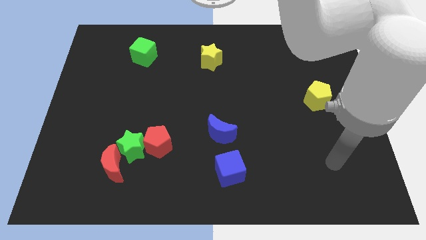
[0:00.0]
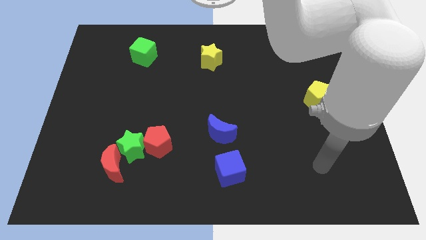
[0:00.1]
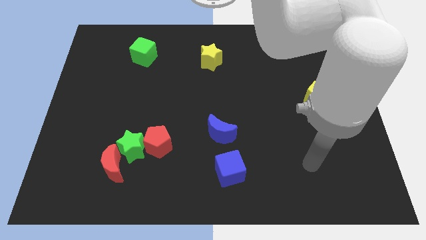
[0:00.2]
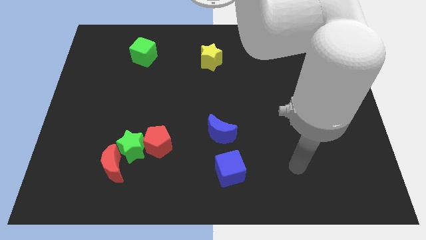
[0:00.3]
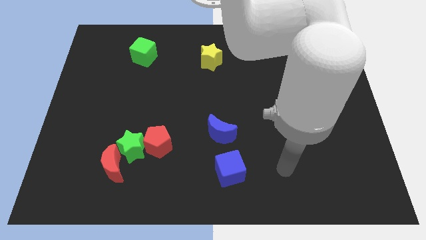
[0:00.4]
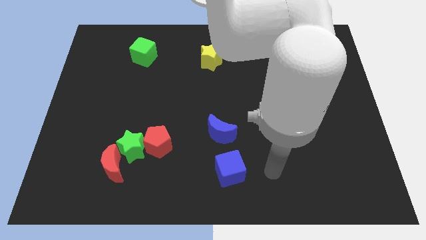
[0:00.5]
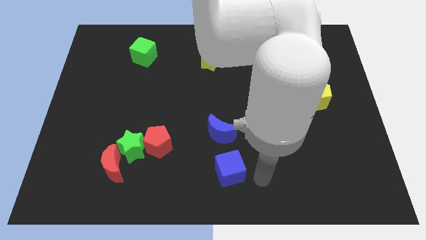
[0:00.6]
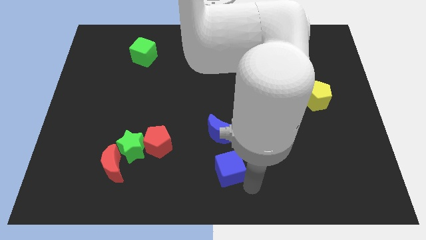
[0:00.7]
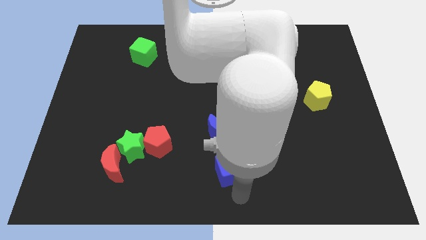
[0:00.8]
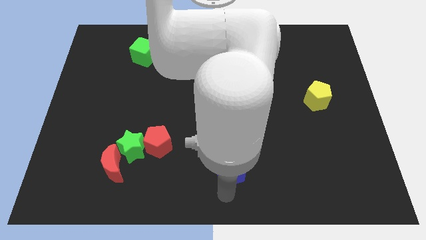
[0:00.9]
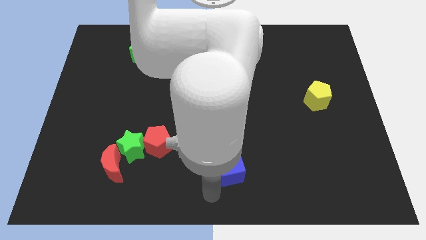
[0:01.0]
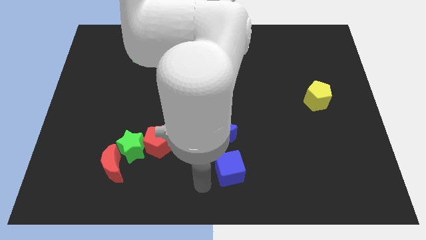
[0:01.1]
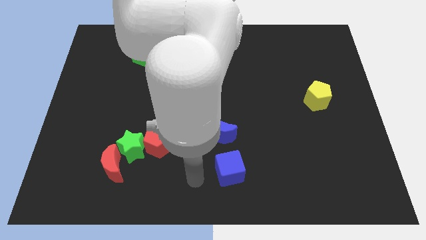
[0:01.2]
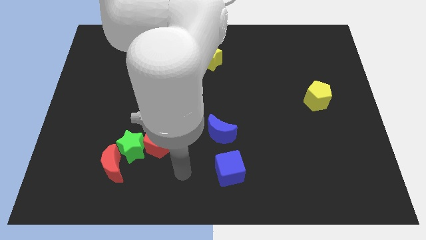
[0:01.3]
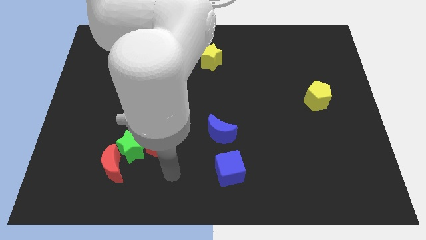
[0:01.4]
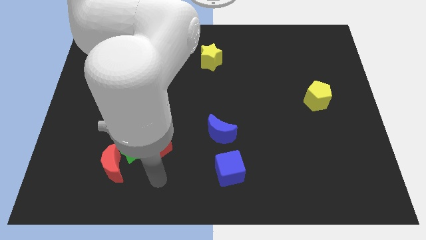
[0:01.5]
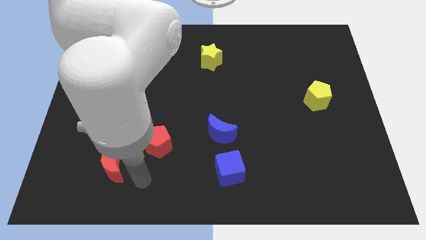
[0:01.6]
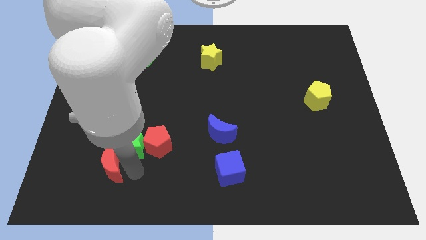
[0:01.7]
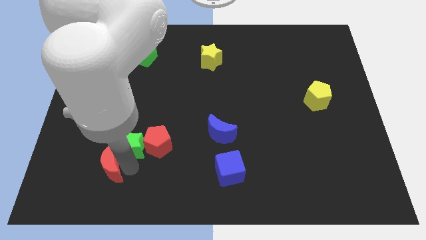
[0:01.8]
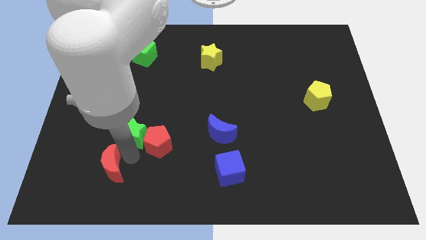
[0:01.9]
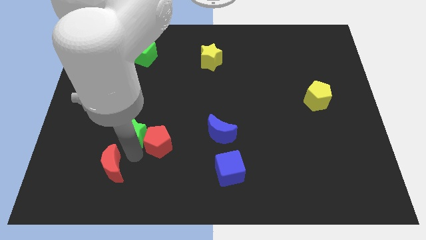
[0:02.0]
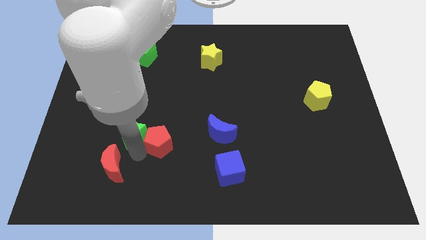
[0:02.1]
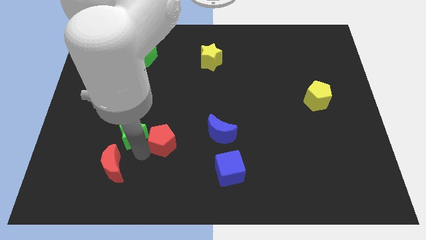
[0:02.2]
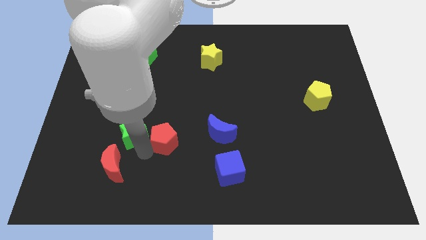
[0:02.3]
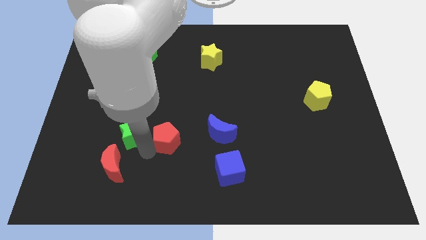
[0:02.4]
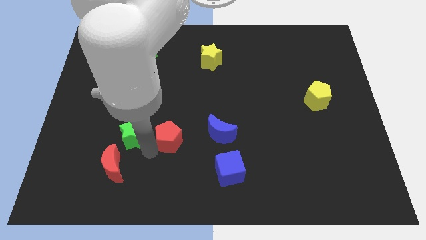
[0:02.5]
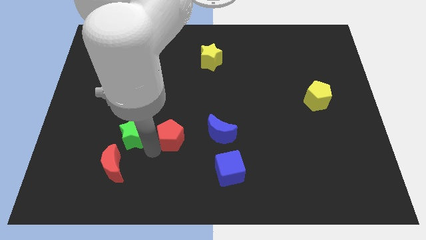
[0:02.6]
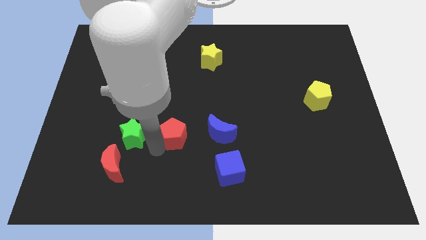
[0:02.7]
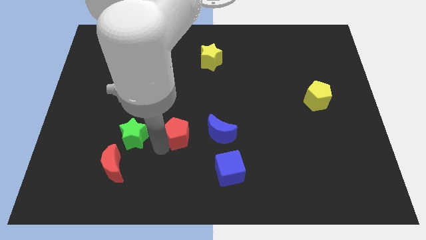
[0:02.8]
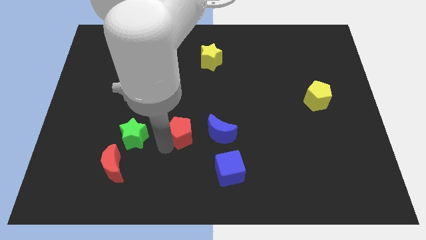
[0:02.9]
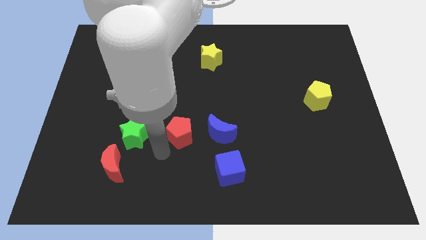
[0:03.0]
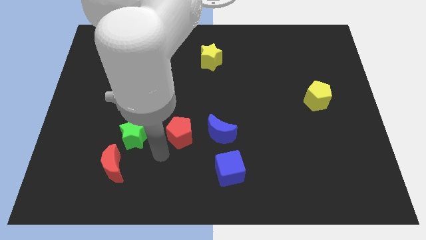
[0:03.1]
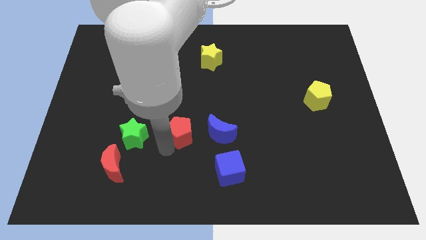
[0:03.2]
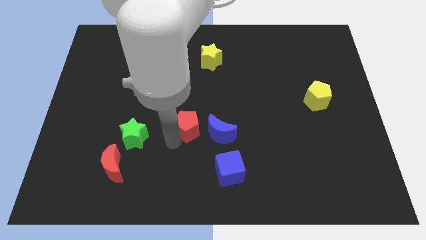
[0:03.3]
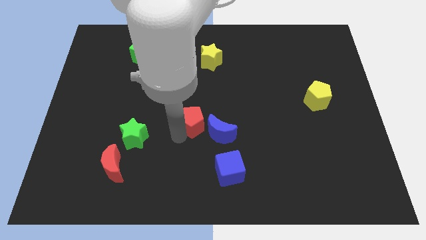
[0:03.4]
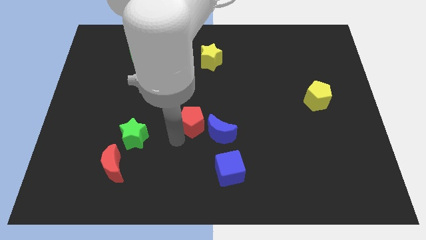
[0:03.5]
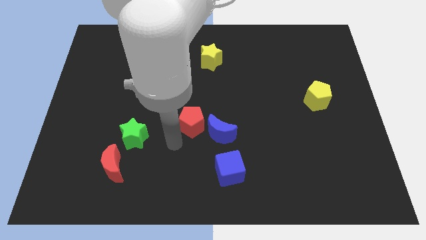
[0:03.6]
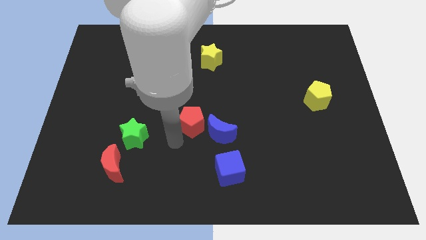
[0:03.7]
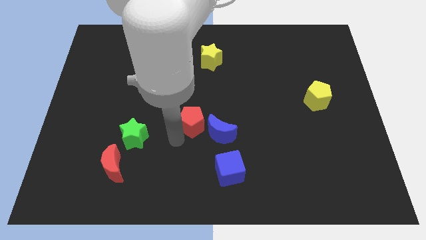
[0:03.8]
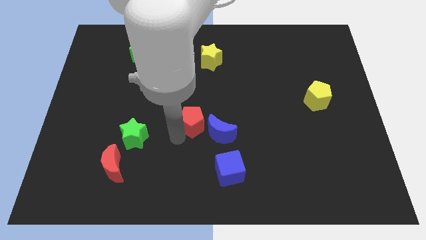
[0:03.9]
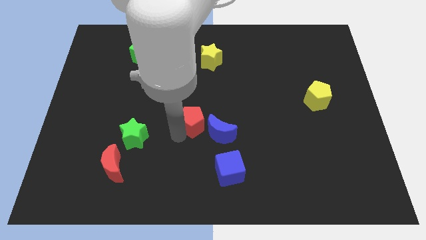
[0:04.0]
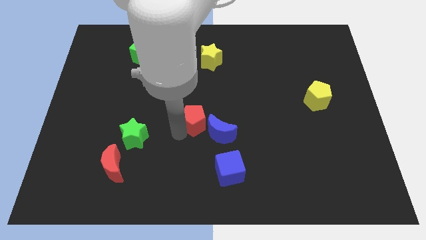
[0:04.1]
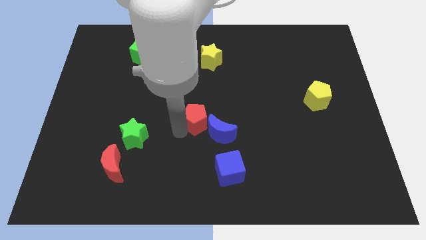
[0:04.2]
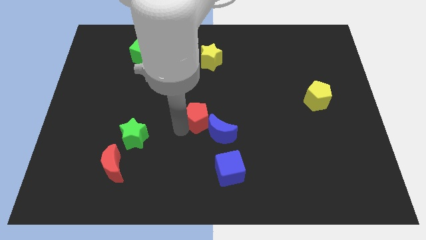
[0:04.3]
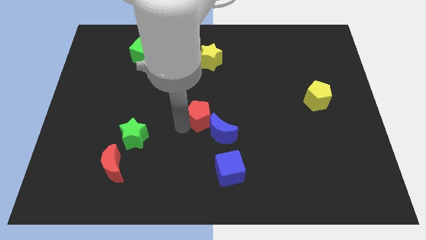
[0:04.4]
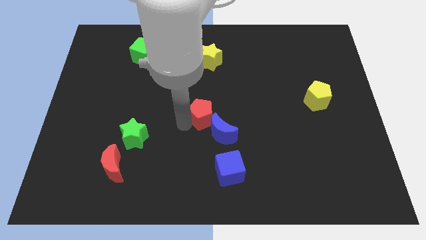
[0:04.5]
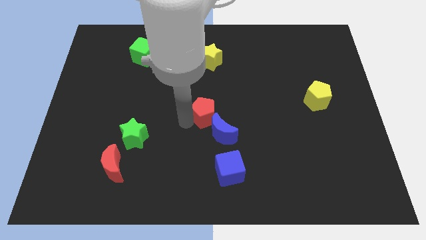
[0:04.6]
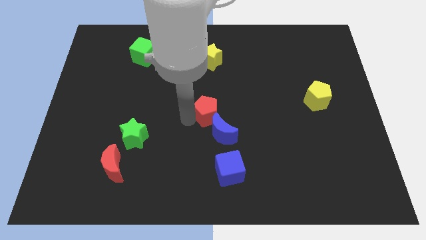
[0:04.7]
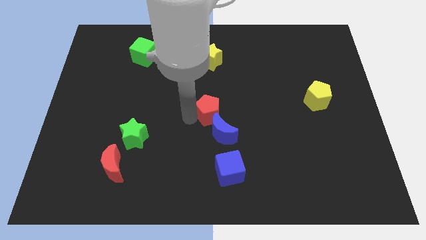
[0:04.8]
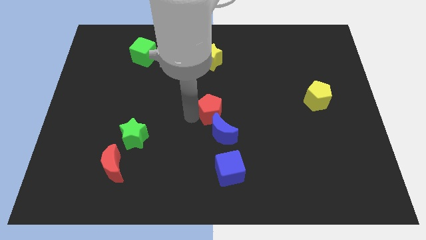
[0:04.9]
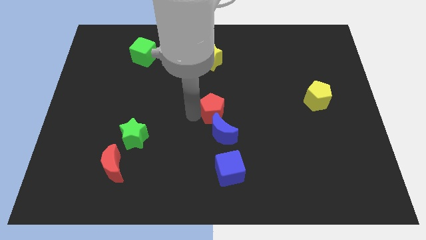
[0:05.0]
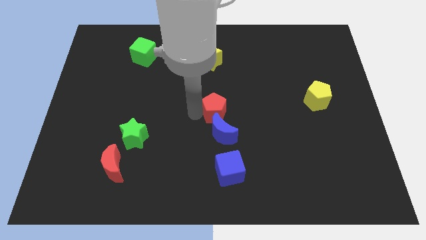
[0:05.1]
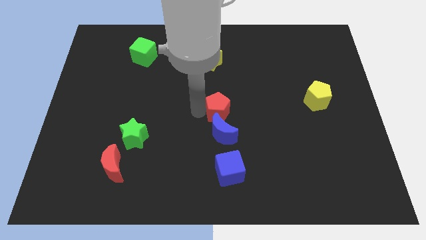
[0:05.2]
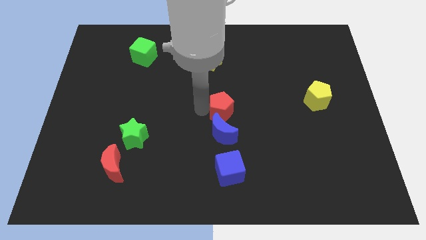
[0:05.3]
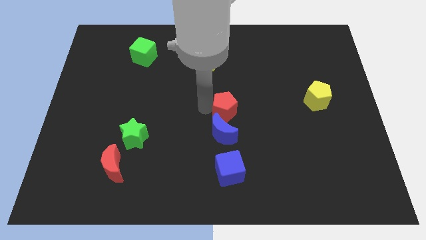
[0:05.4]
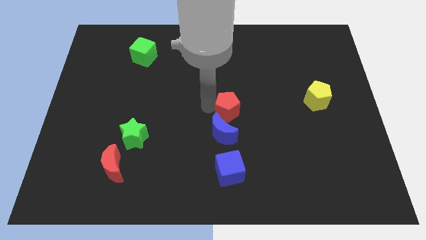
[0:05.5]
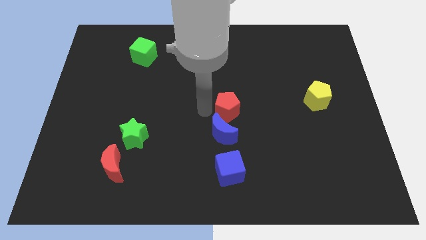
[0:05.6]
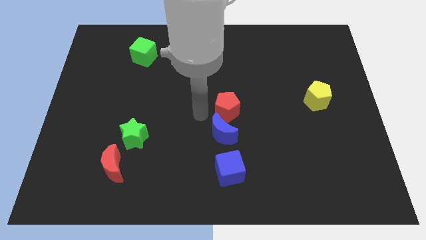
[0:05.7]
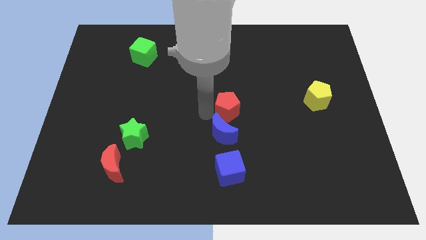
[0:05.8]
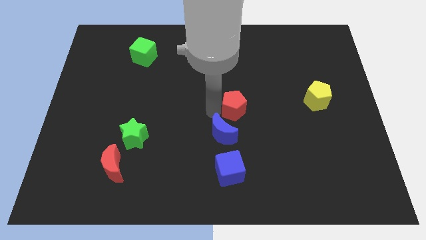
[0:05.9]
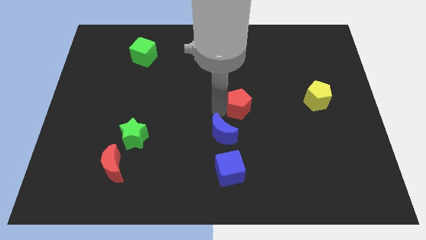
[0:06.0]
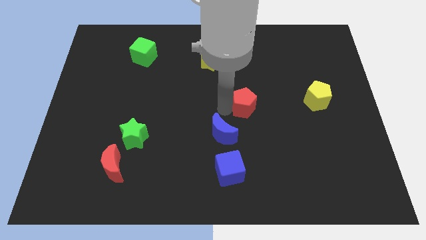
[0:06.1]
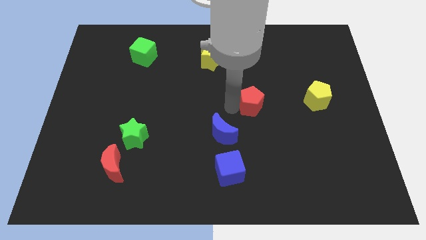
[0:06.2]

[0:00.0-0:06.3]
slide the red pentagon to the left side of the yellow pentagon

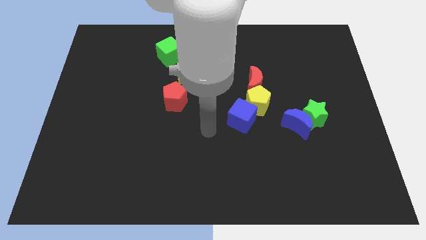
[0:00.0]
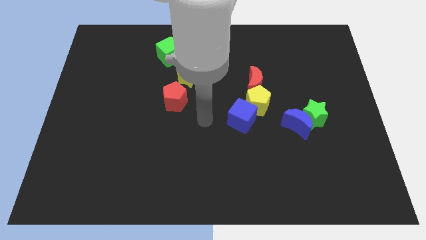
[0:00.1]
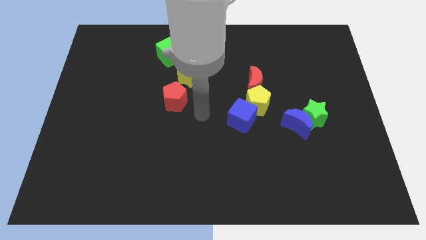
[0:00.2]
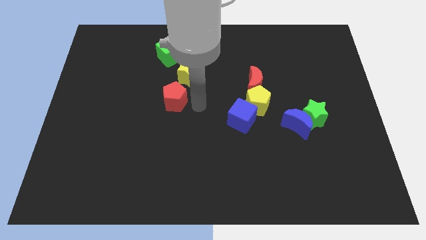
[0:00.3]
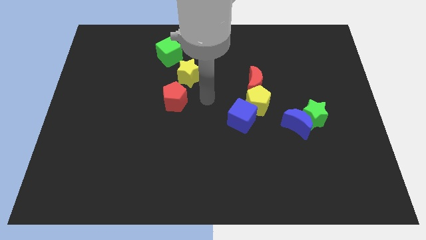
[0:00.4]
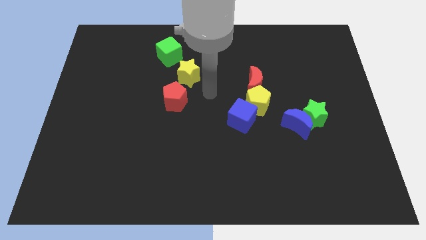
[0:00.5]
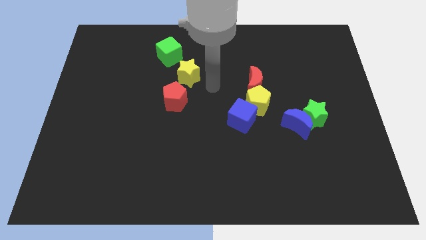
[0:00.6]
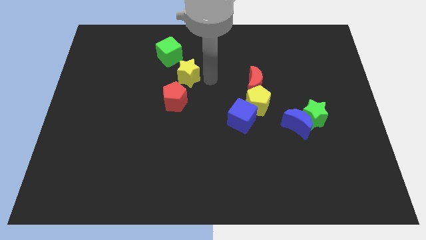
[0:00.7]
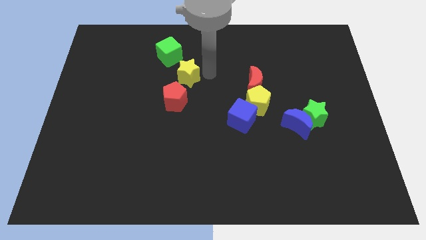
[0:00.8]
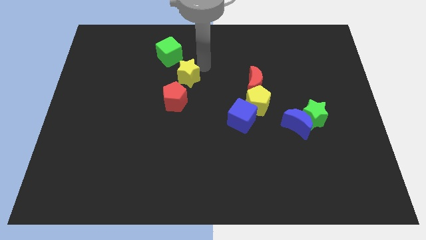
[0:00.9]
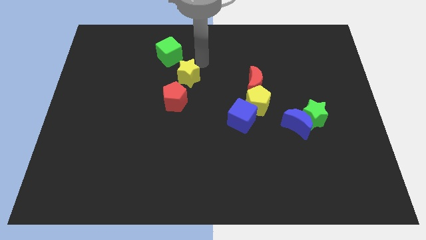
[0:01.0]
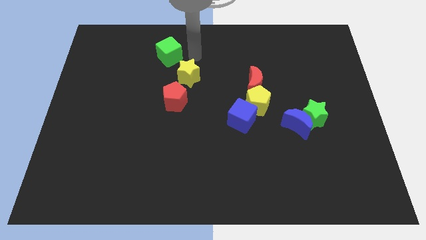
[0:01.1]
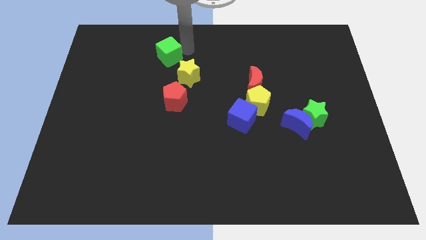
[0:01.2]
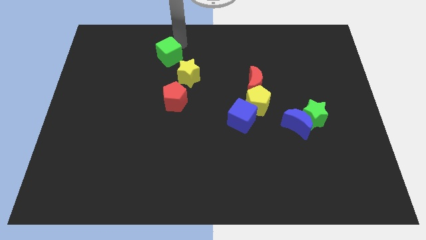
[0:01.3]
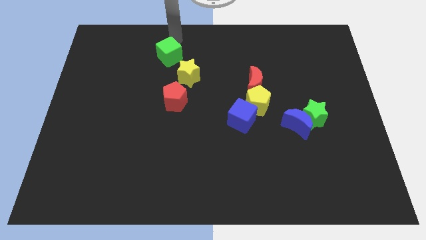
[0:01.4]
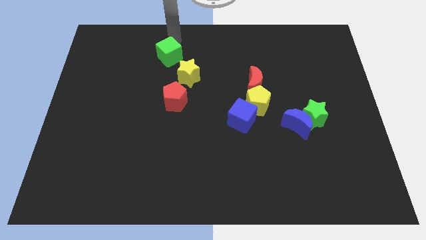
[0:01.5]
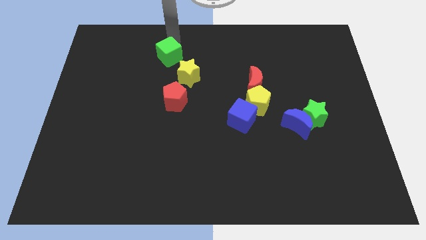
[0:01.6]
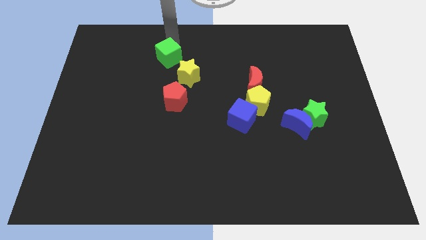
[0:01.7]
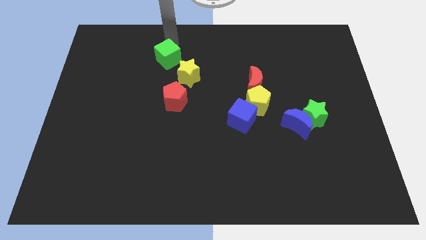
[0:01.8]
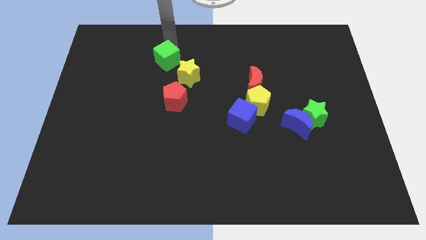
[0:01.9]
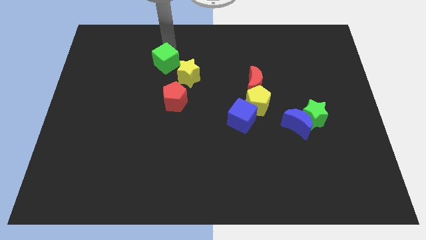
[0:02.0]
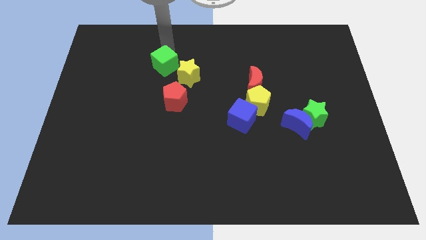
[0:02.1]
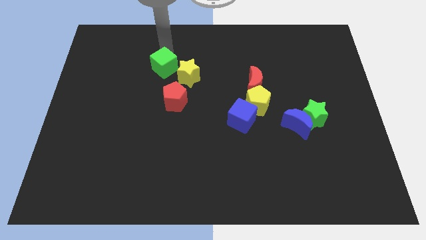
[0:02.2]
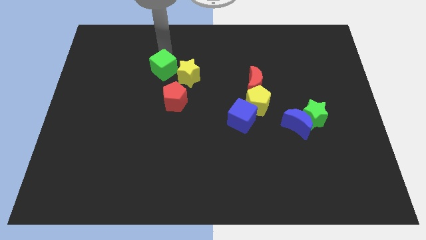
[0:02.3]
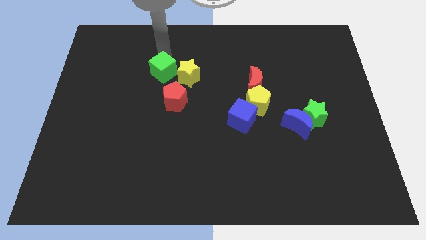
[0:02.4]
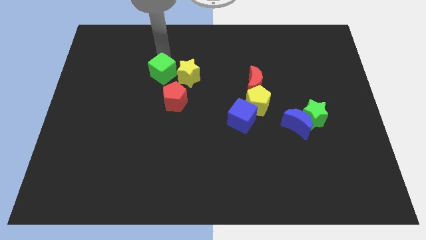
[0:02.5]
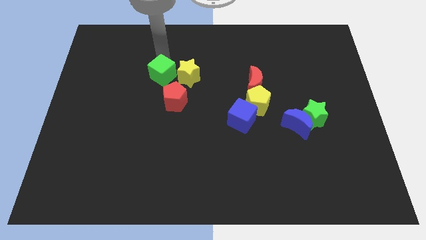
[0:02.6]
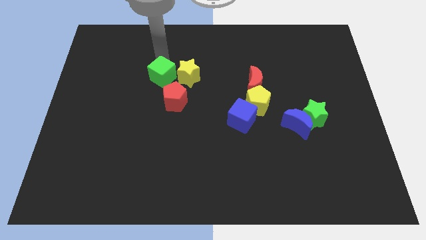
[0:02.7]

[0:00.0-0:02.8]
put the green cube to the bottom left of the yellow star
